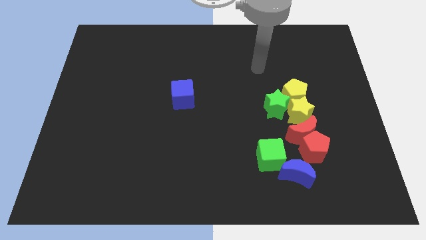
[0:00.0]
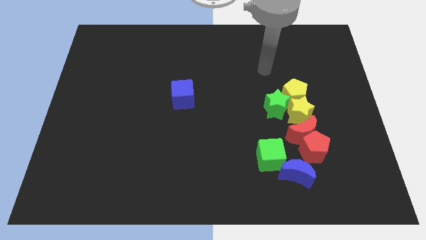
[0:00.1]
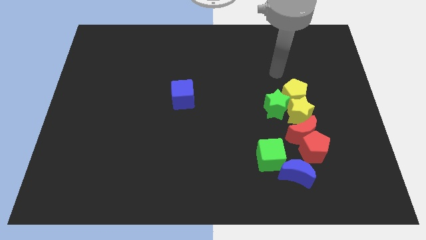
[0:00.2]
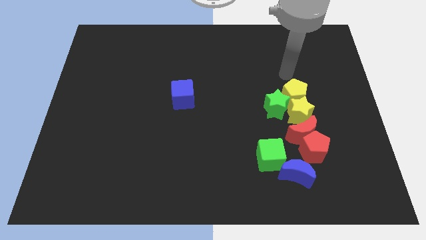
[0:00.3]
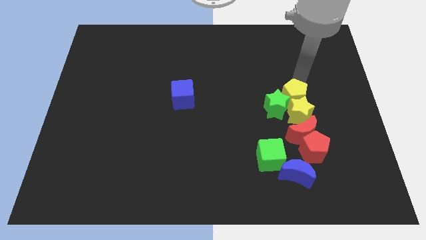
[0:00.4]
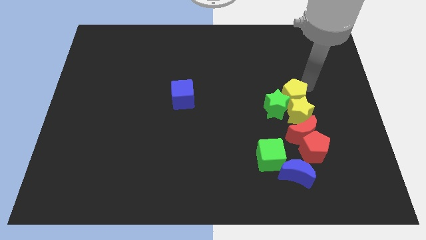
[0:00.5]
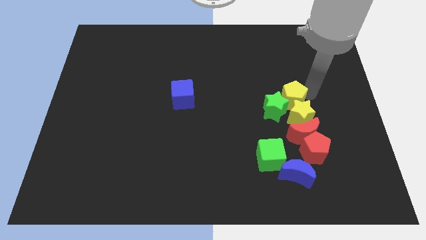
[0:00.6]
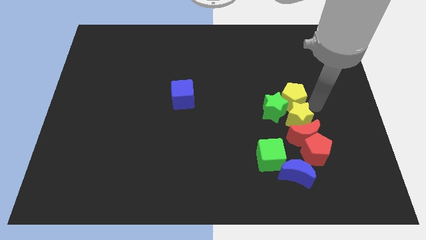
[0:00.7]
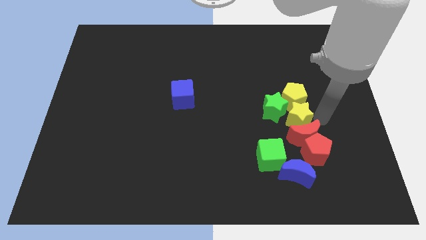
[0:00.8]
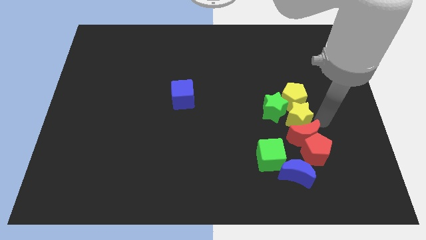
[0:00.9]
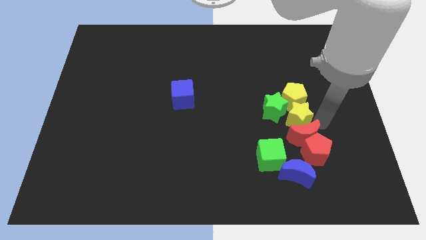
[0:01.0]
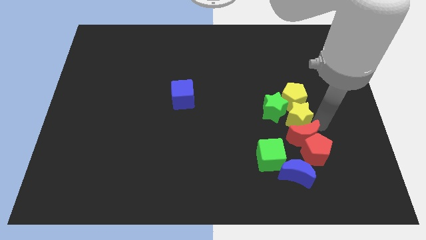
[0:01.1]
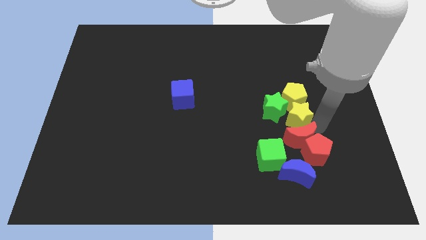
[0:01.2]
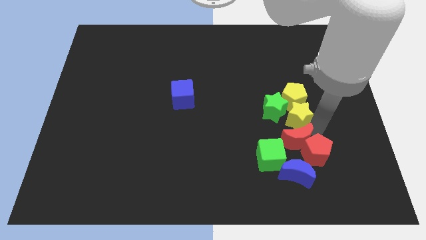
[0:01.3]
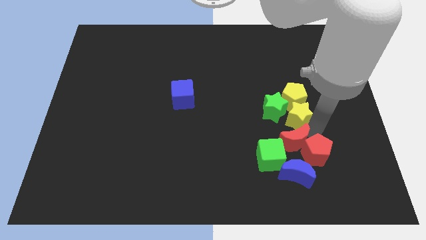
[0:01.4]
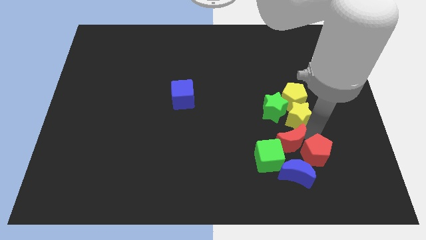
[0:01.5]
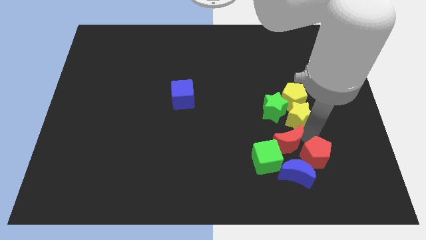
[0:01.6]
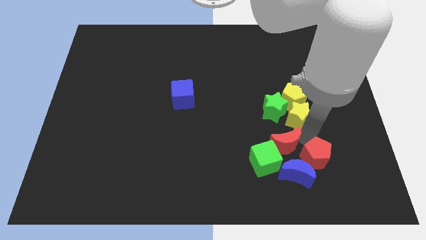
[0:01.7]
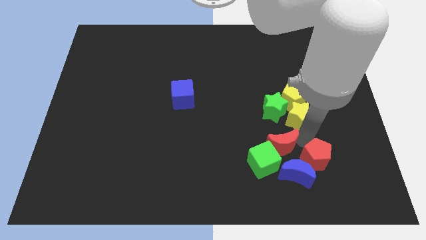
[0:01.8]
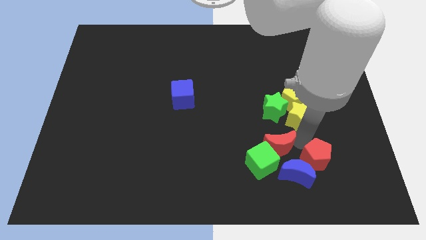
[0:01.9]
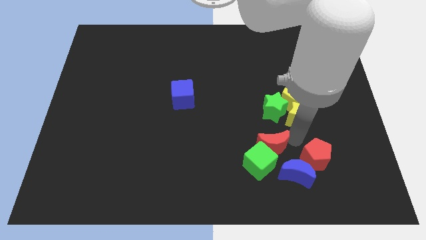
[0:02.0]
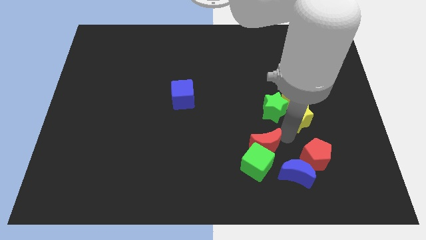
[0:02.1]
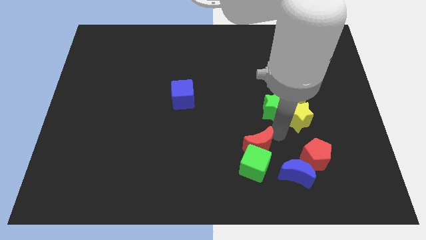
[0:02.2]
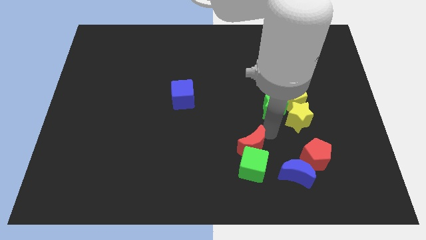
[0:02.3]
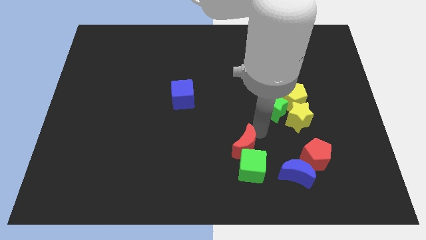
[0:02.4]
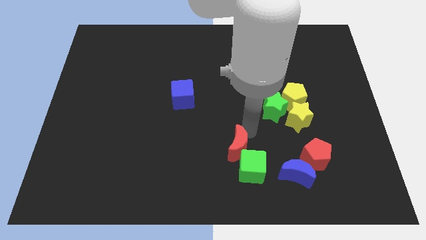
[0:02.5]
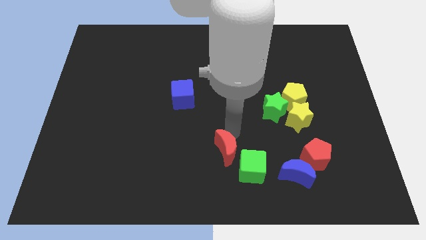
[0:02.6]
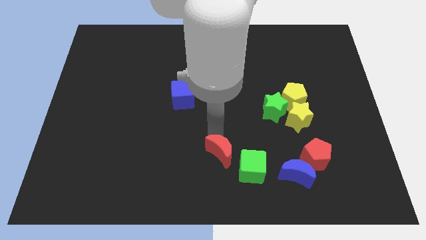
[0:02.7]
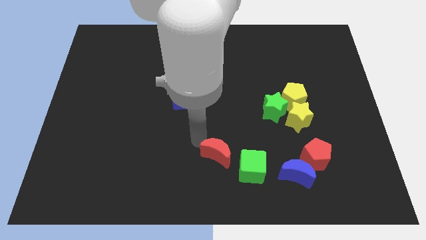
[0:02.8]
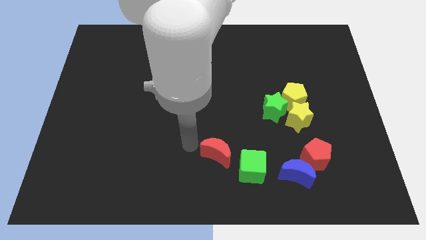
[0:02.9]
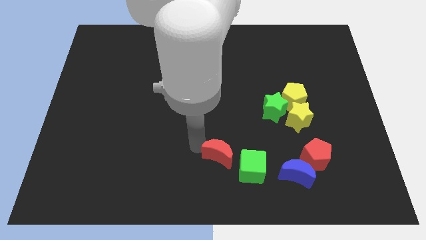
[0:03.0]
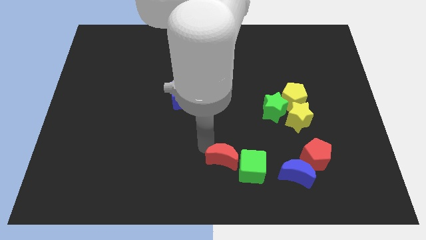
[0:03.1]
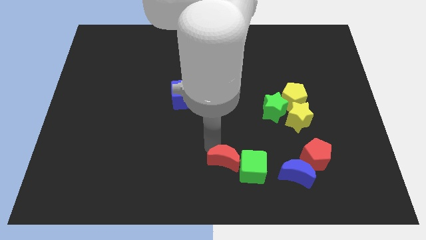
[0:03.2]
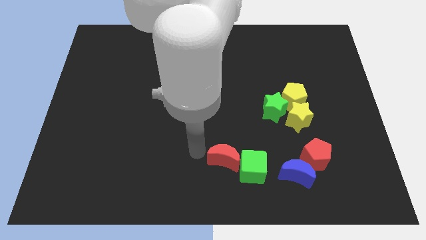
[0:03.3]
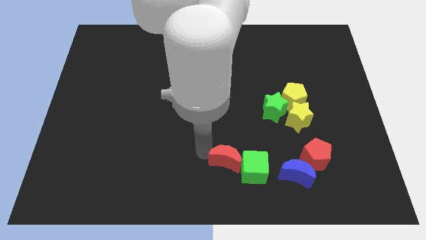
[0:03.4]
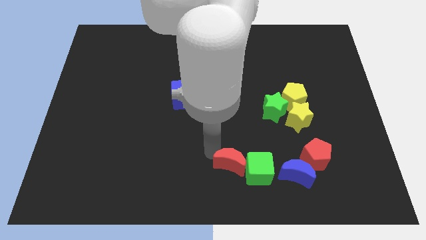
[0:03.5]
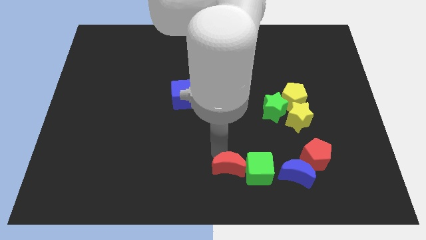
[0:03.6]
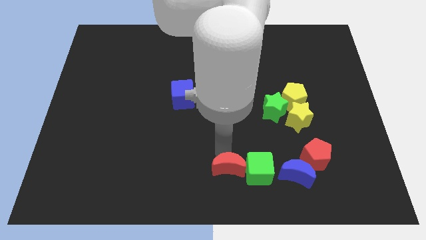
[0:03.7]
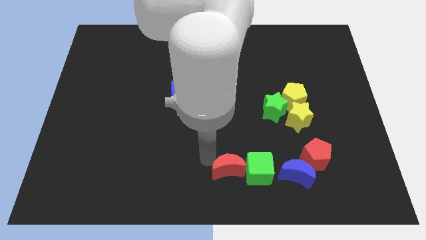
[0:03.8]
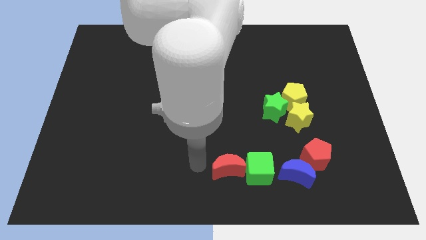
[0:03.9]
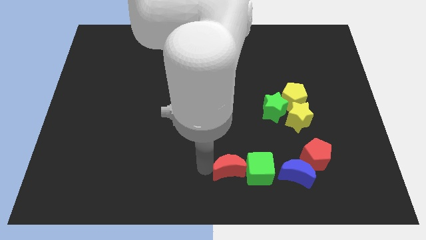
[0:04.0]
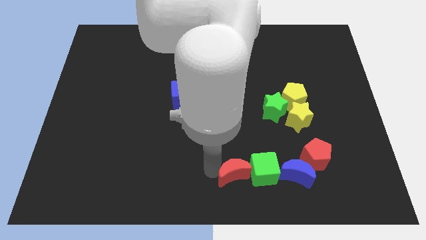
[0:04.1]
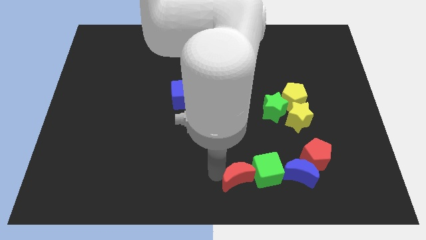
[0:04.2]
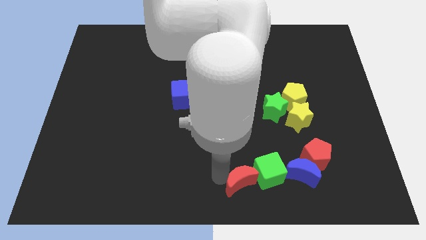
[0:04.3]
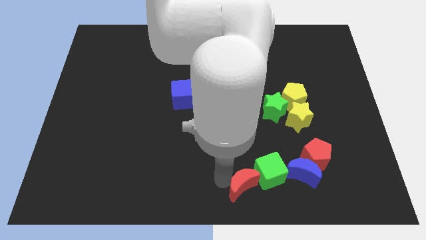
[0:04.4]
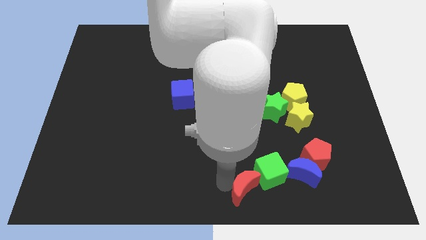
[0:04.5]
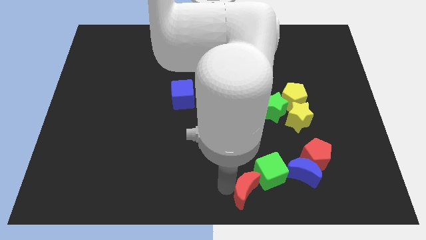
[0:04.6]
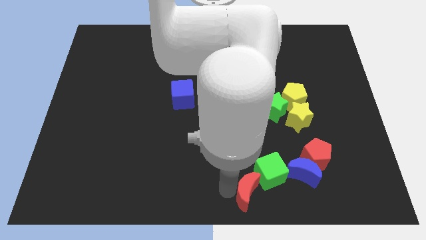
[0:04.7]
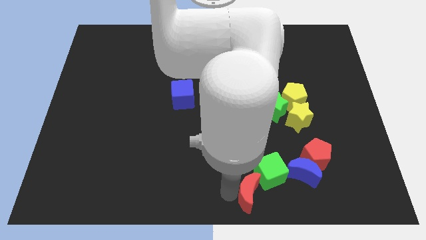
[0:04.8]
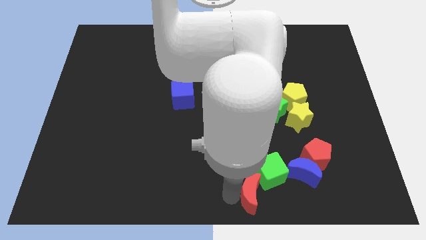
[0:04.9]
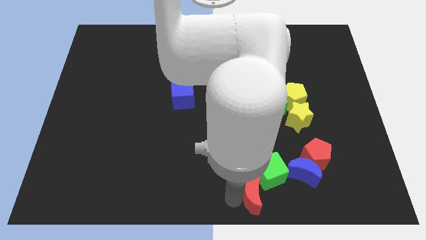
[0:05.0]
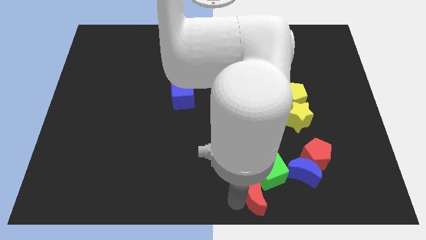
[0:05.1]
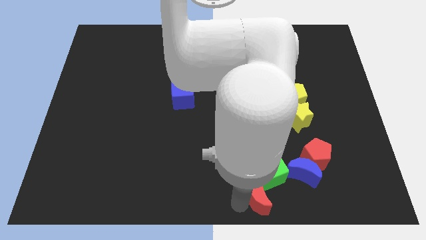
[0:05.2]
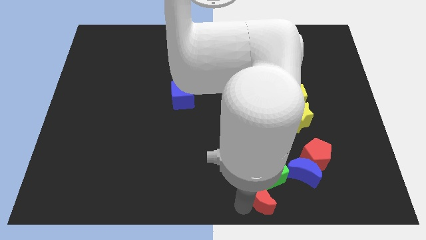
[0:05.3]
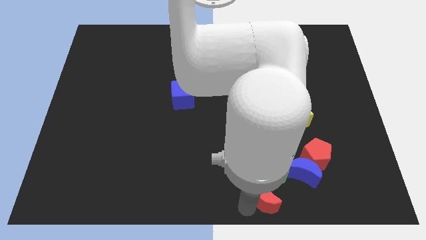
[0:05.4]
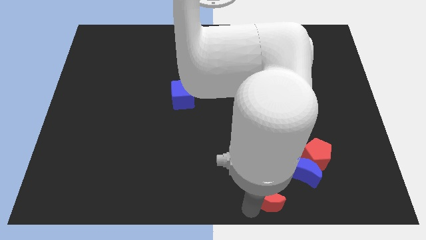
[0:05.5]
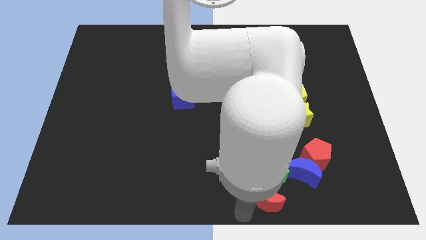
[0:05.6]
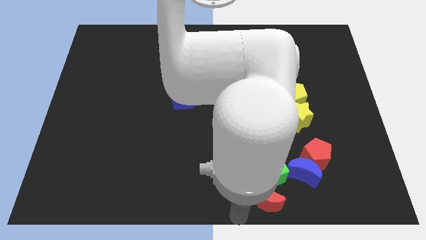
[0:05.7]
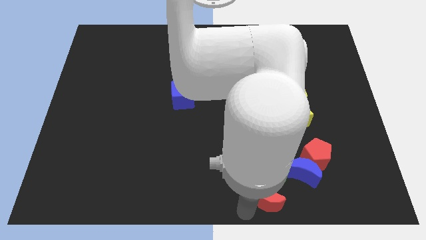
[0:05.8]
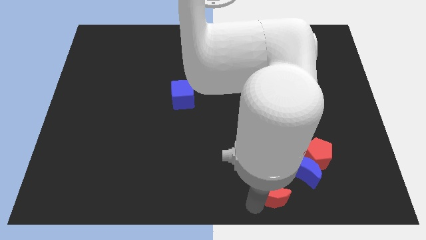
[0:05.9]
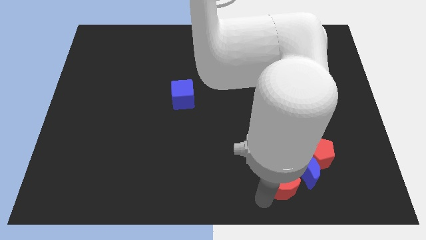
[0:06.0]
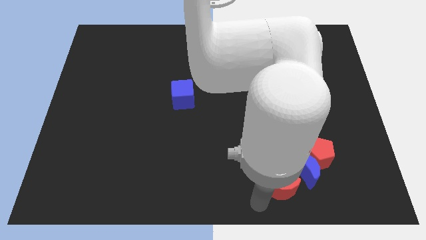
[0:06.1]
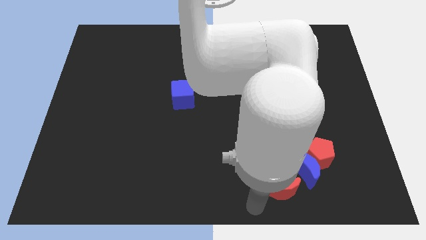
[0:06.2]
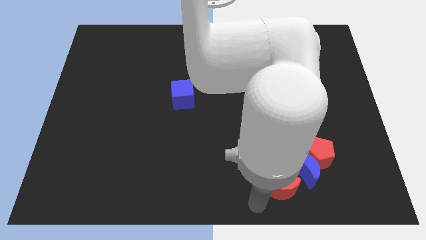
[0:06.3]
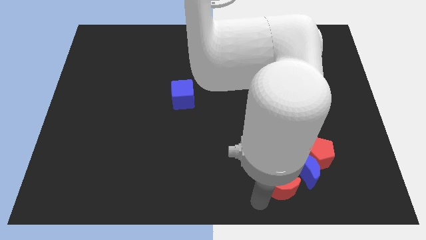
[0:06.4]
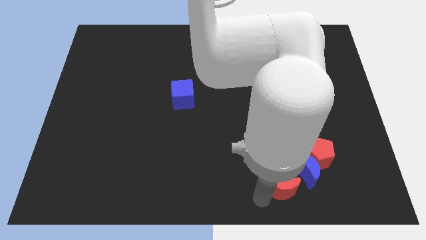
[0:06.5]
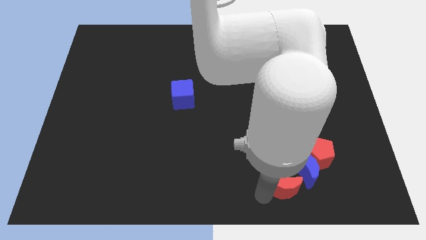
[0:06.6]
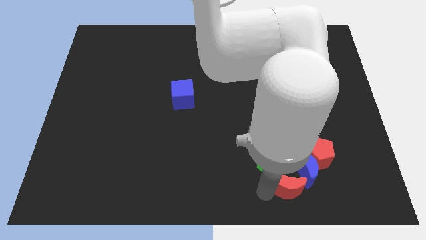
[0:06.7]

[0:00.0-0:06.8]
push the red moon next to the blue moon

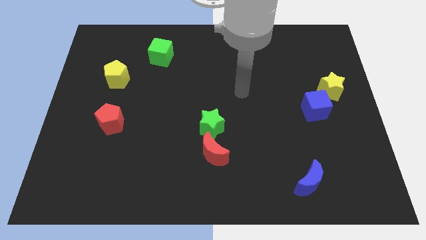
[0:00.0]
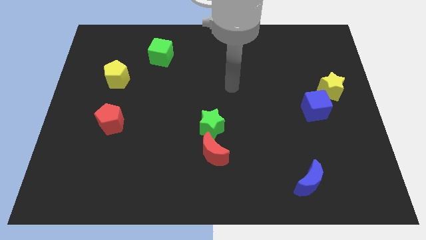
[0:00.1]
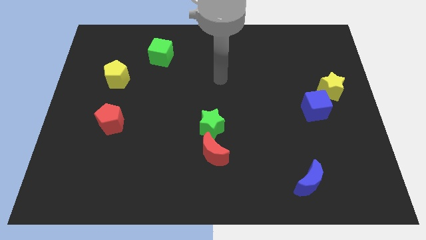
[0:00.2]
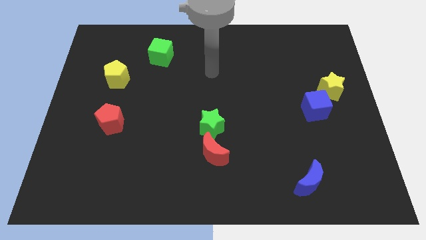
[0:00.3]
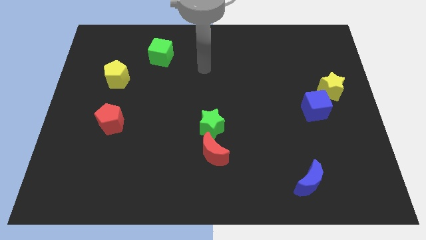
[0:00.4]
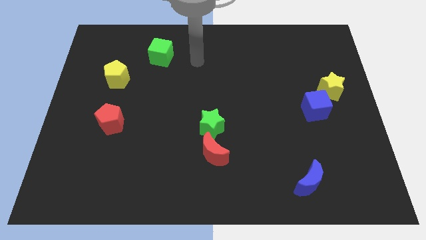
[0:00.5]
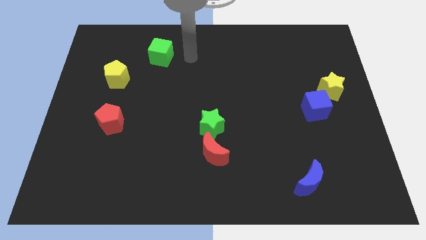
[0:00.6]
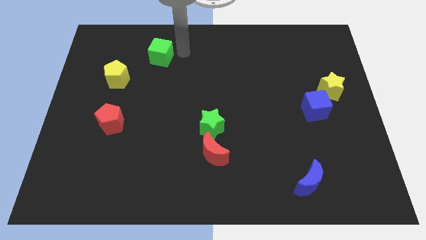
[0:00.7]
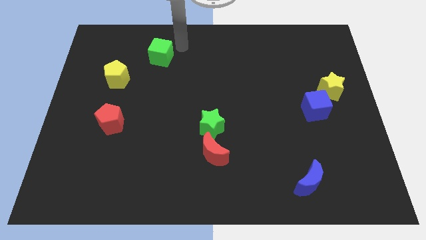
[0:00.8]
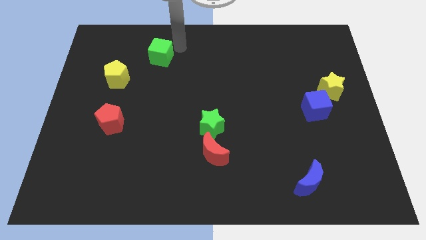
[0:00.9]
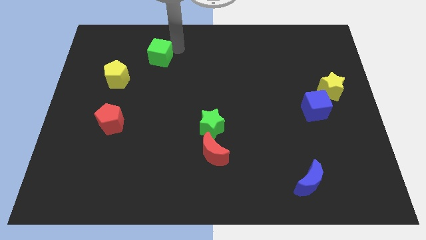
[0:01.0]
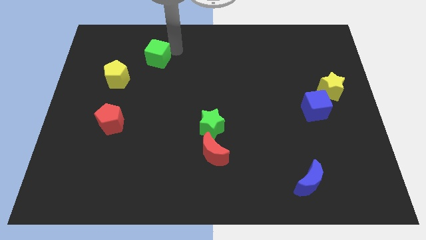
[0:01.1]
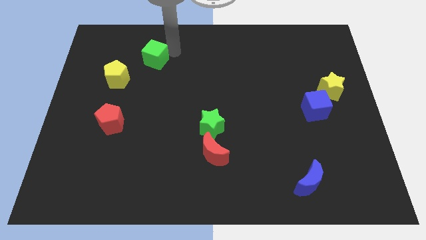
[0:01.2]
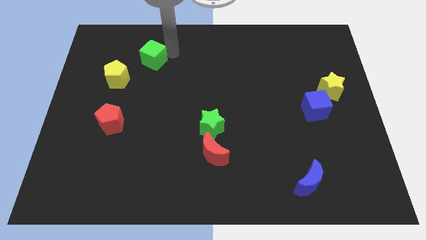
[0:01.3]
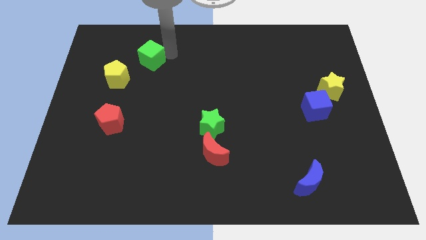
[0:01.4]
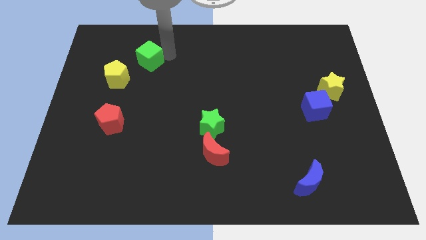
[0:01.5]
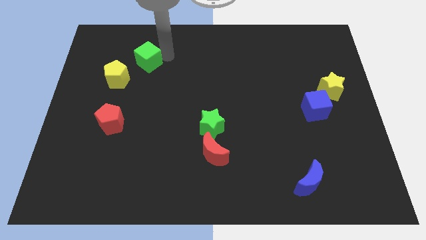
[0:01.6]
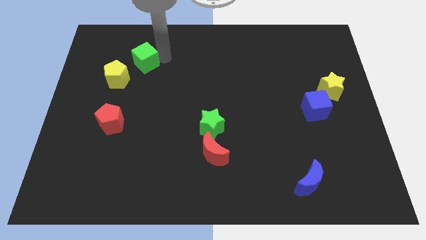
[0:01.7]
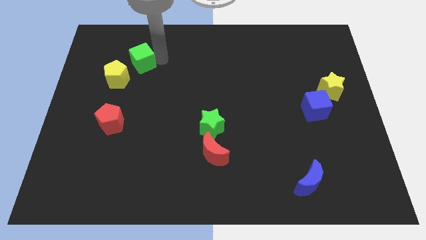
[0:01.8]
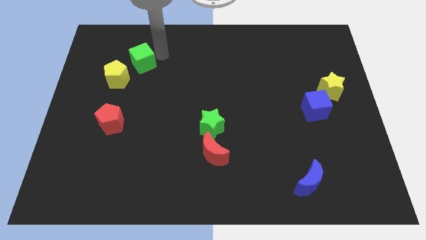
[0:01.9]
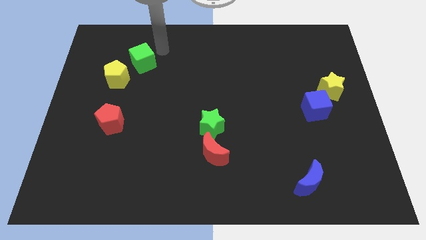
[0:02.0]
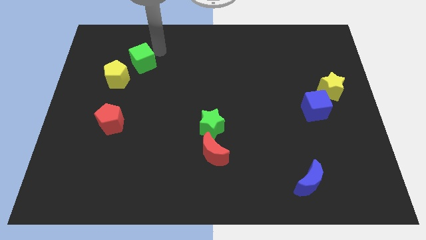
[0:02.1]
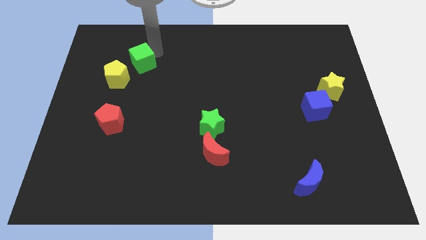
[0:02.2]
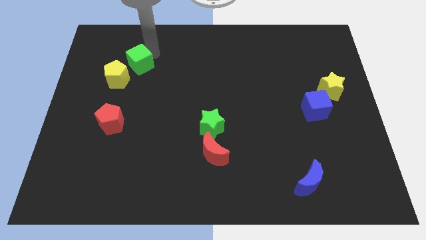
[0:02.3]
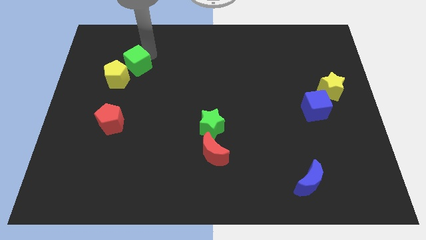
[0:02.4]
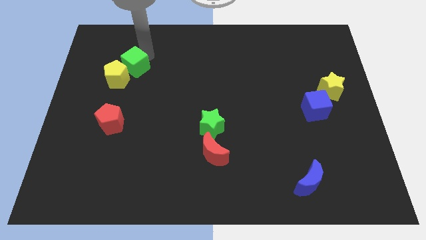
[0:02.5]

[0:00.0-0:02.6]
move the green cube next to the yellow pentagon
